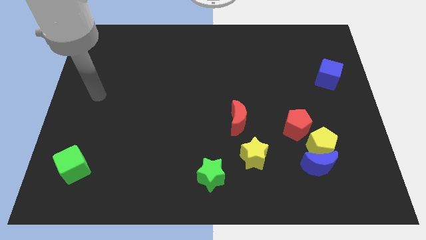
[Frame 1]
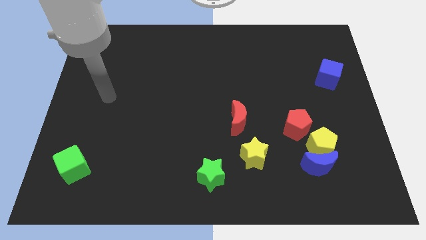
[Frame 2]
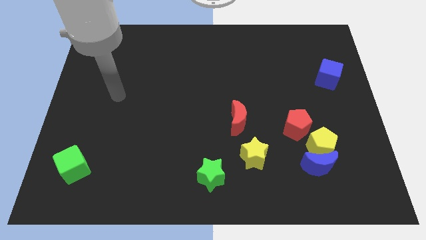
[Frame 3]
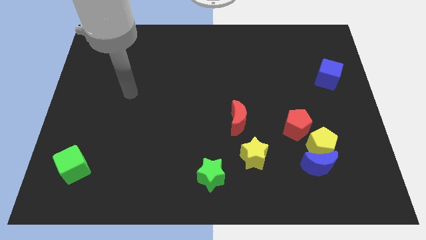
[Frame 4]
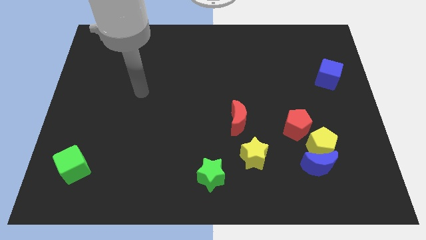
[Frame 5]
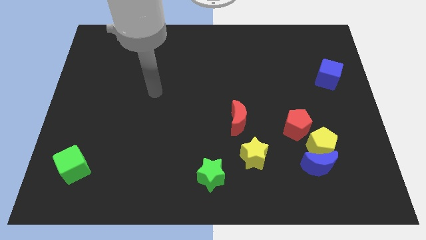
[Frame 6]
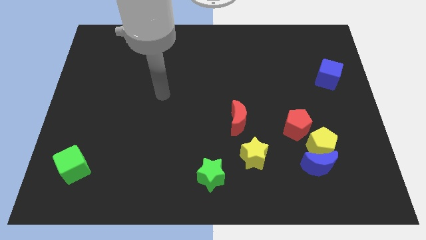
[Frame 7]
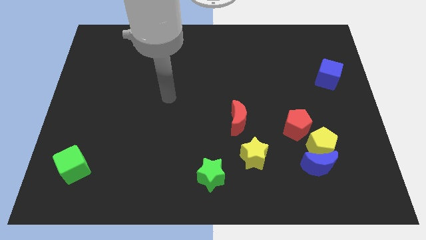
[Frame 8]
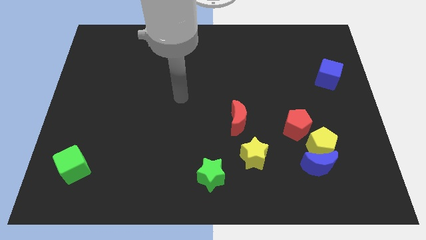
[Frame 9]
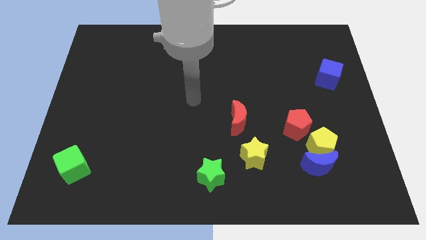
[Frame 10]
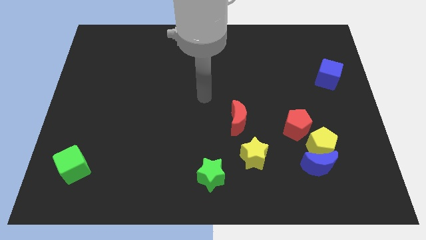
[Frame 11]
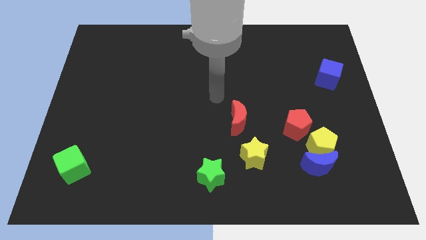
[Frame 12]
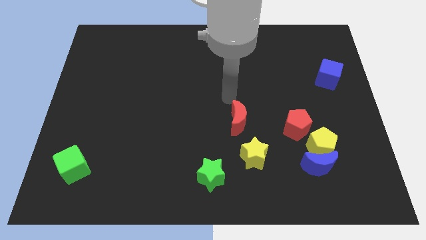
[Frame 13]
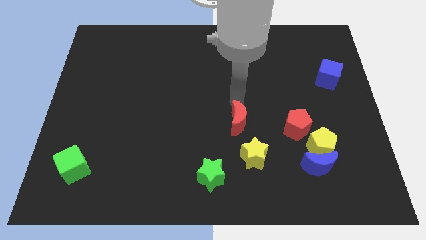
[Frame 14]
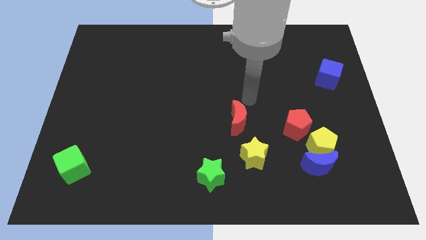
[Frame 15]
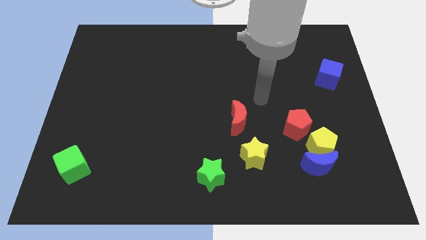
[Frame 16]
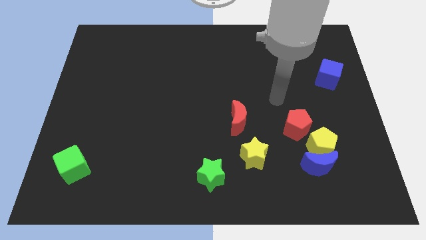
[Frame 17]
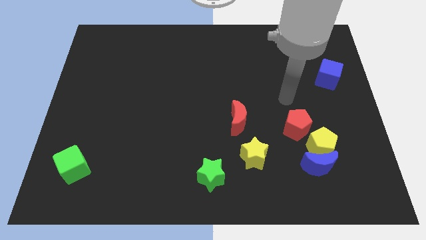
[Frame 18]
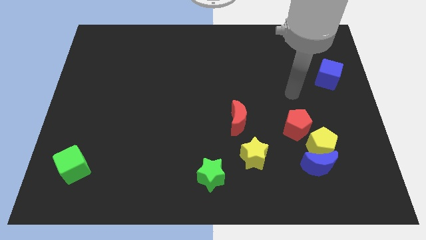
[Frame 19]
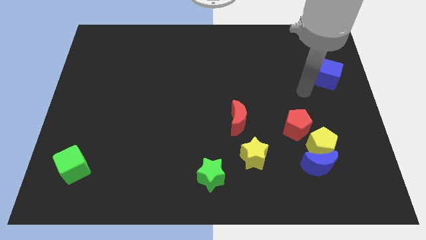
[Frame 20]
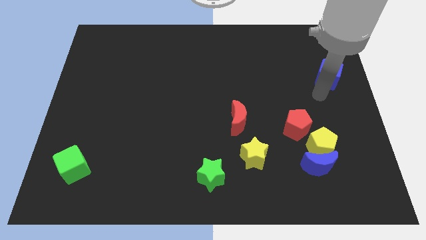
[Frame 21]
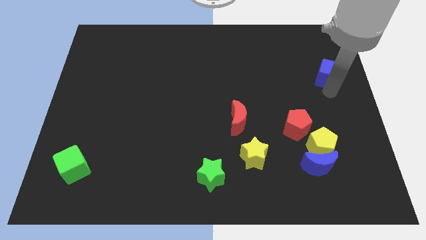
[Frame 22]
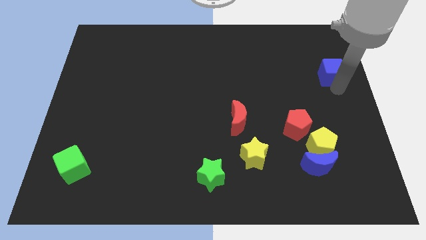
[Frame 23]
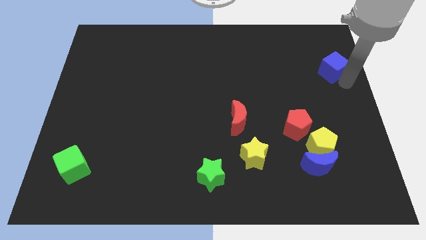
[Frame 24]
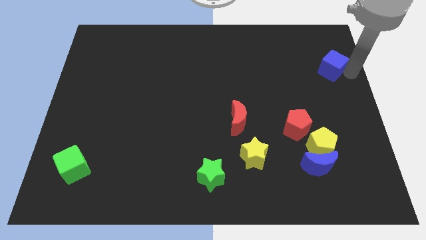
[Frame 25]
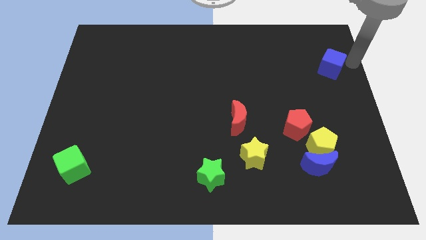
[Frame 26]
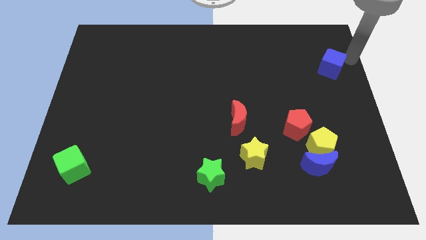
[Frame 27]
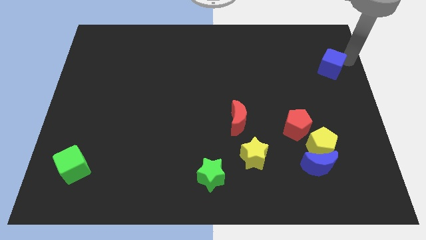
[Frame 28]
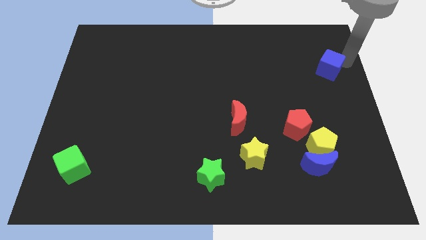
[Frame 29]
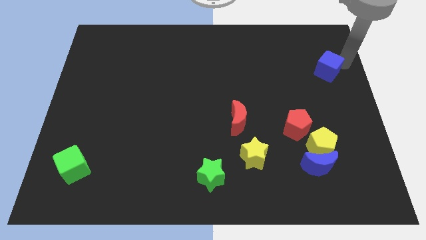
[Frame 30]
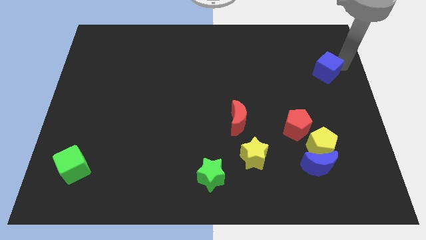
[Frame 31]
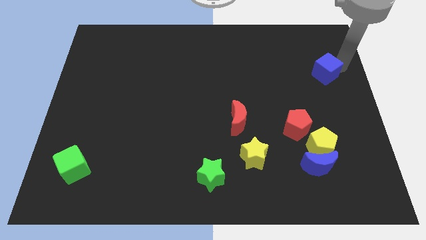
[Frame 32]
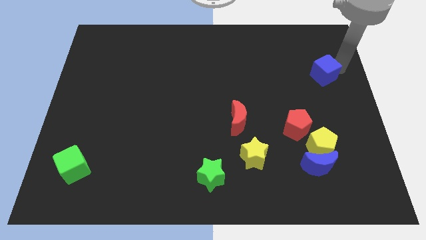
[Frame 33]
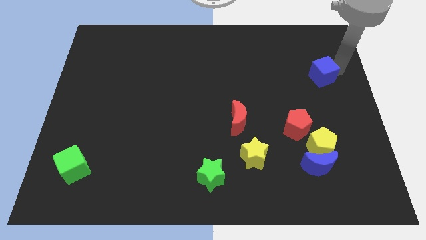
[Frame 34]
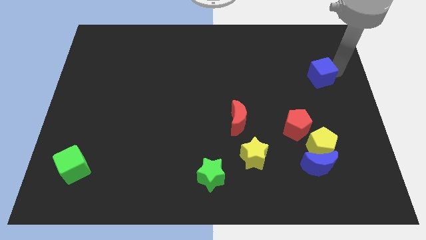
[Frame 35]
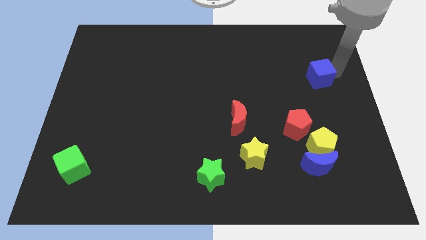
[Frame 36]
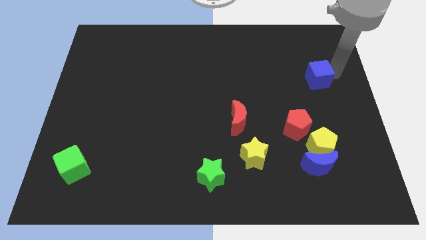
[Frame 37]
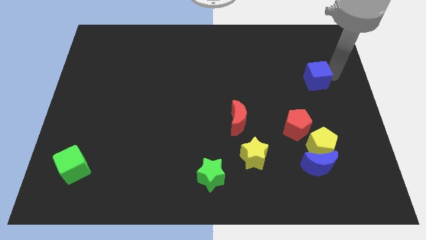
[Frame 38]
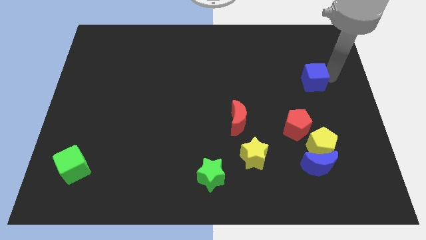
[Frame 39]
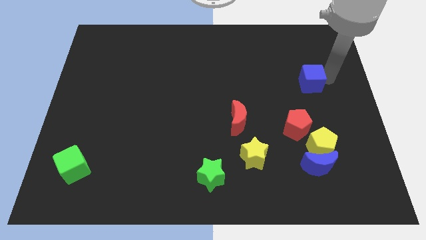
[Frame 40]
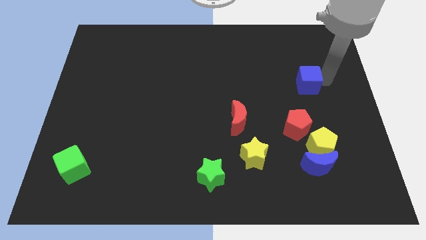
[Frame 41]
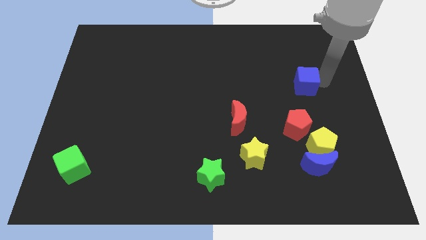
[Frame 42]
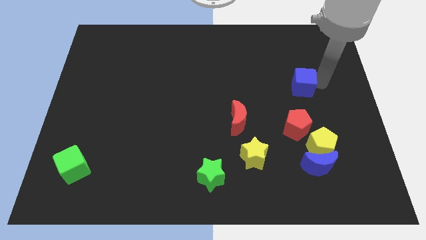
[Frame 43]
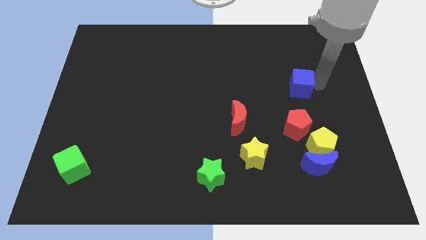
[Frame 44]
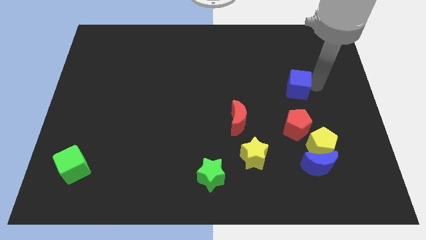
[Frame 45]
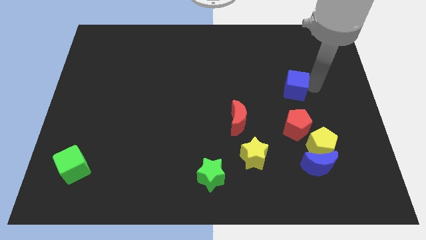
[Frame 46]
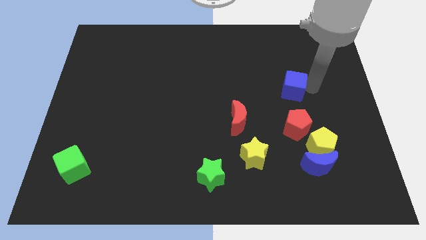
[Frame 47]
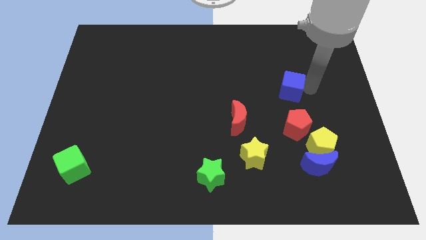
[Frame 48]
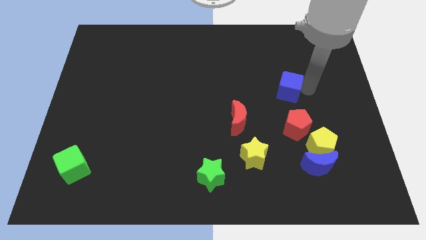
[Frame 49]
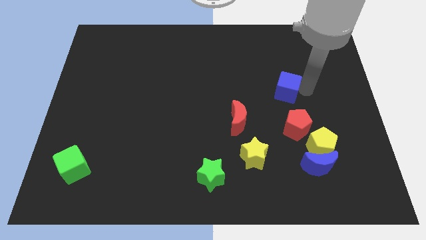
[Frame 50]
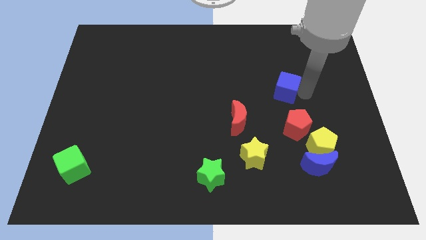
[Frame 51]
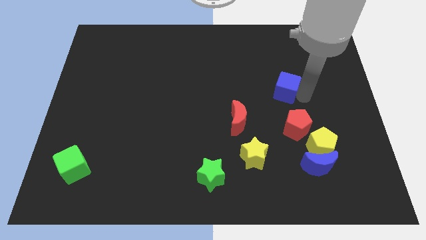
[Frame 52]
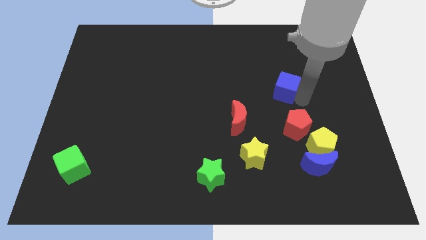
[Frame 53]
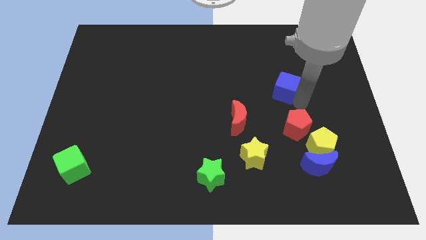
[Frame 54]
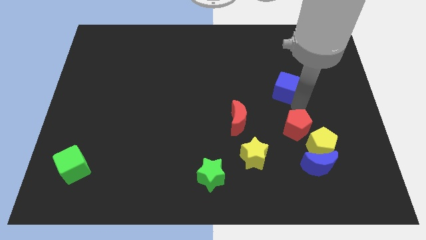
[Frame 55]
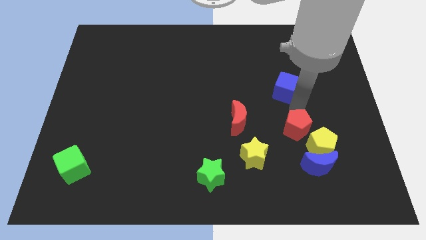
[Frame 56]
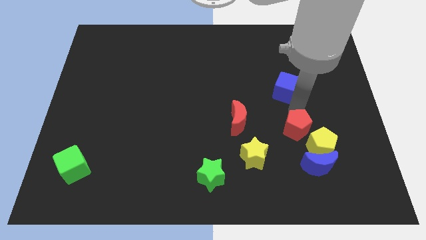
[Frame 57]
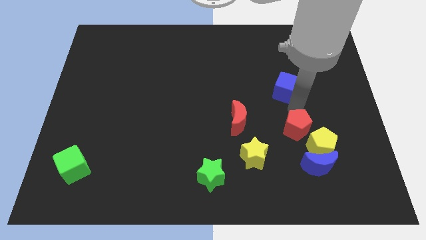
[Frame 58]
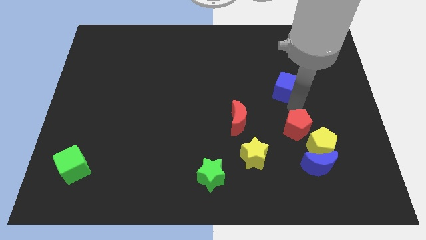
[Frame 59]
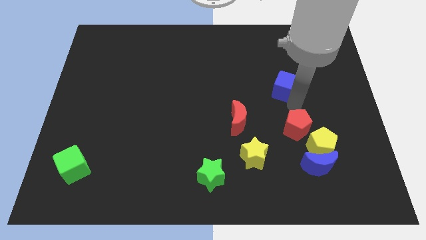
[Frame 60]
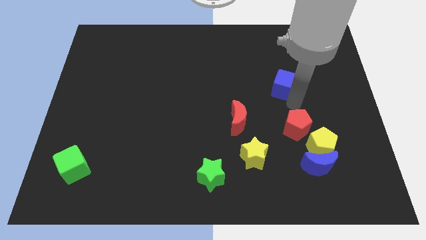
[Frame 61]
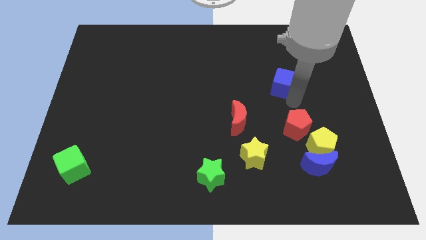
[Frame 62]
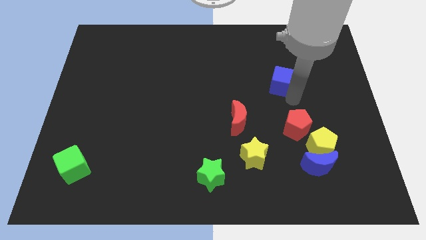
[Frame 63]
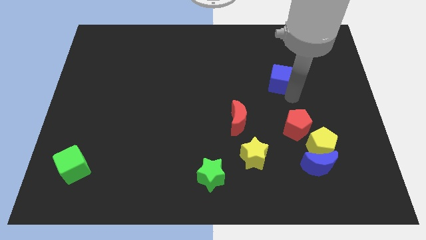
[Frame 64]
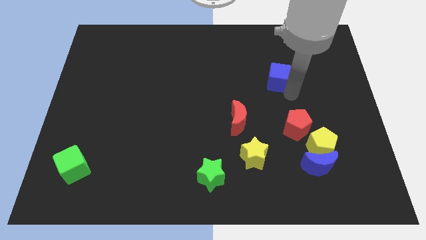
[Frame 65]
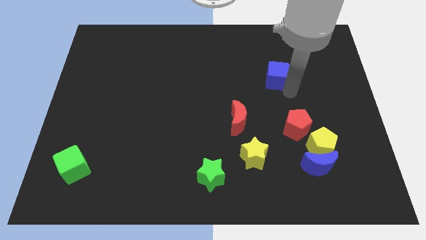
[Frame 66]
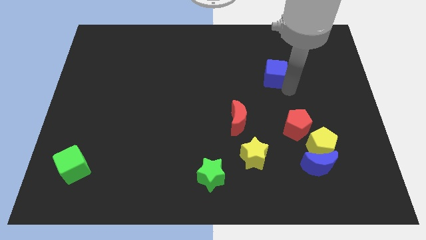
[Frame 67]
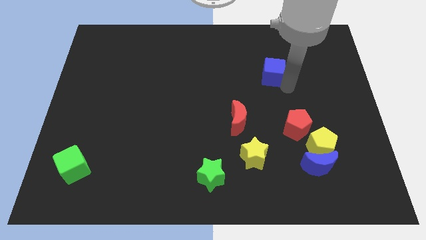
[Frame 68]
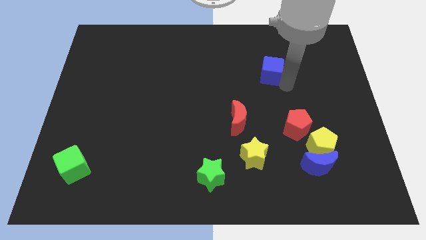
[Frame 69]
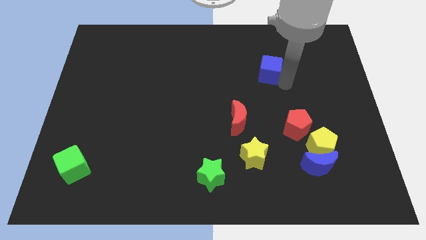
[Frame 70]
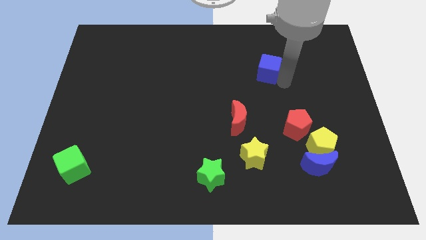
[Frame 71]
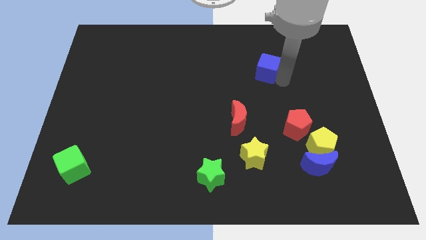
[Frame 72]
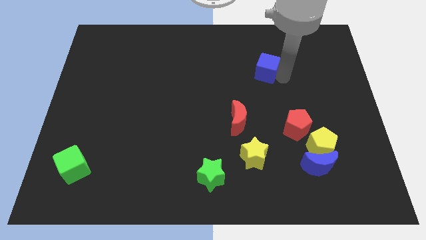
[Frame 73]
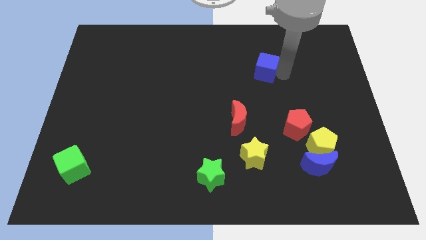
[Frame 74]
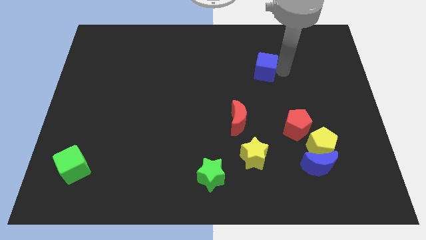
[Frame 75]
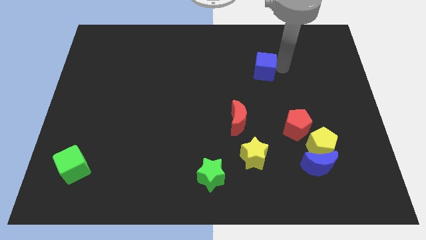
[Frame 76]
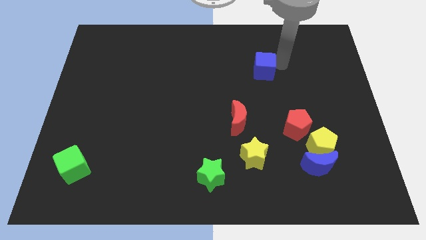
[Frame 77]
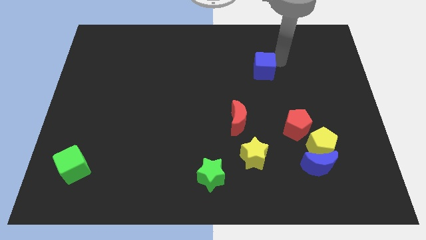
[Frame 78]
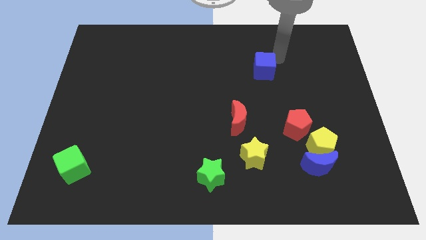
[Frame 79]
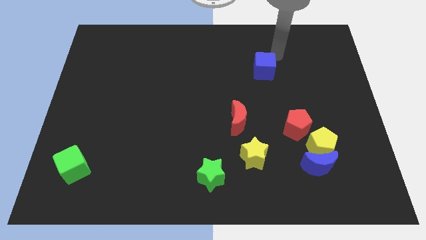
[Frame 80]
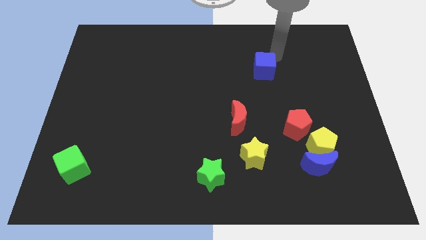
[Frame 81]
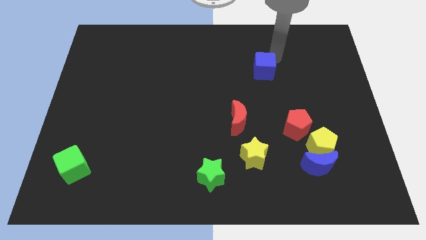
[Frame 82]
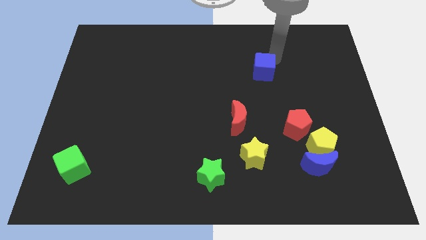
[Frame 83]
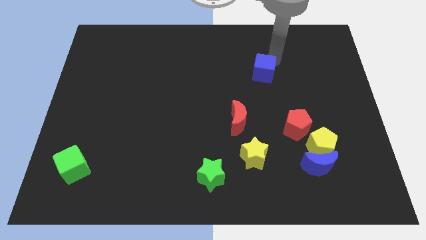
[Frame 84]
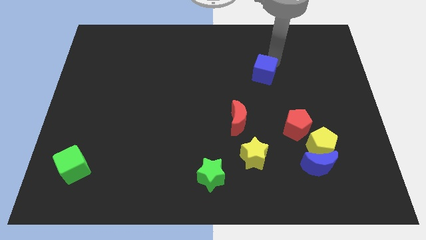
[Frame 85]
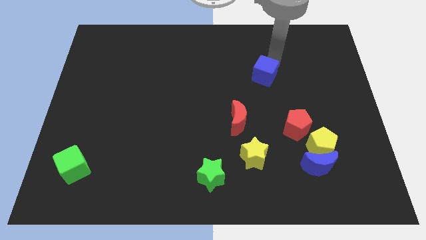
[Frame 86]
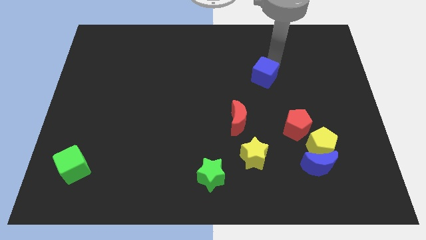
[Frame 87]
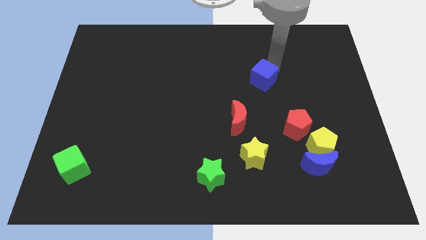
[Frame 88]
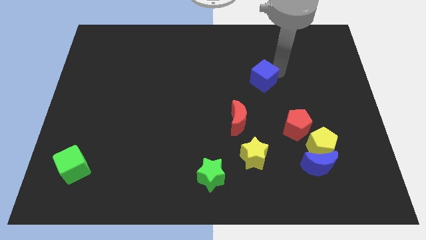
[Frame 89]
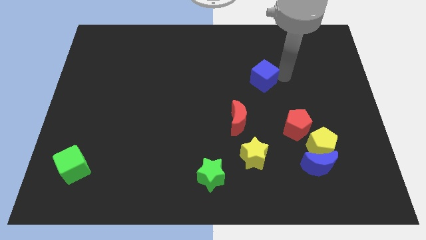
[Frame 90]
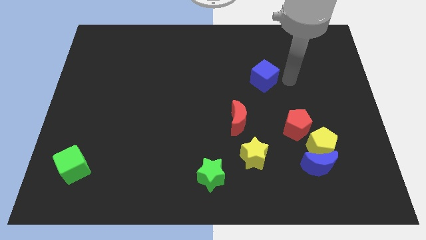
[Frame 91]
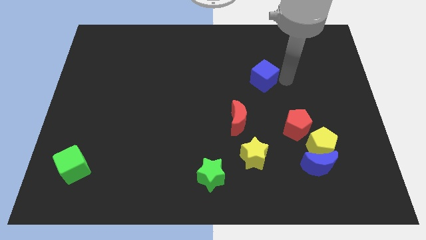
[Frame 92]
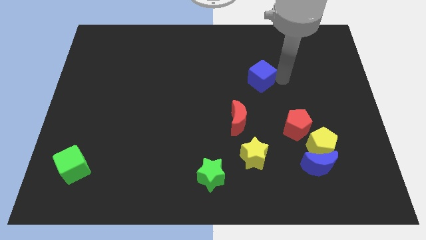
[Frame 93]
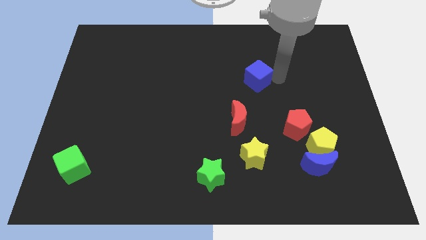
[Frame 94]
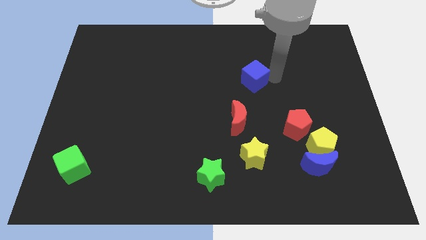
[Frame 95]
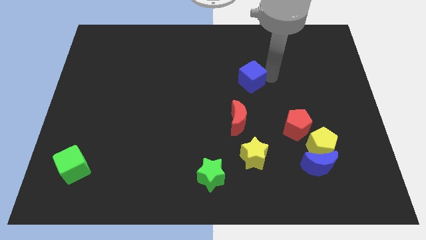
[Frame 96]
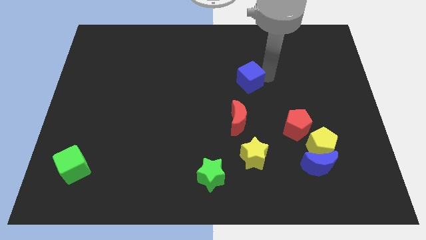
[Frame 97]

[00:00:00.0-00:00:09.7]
push the blue cube to the left
